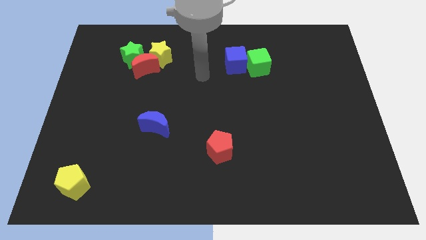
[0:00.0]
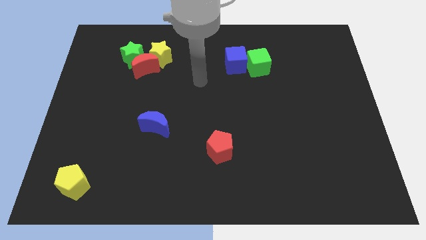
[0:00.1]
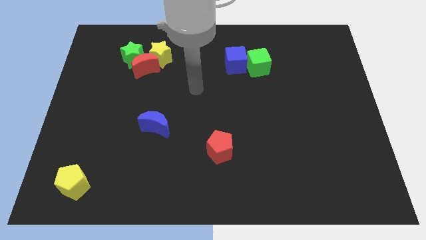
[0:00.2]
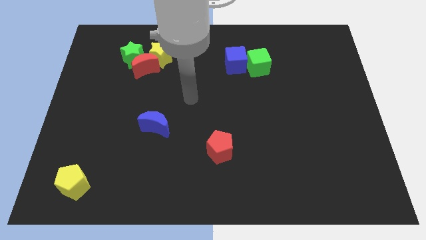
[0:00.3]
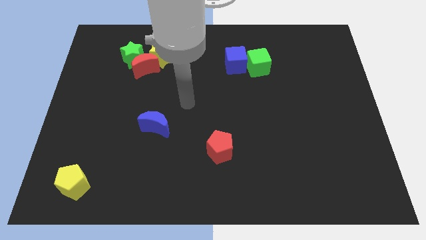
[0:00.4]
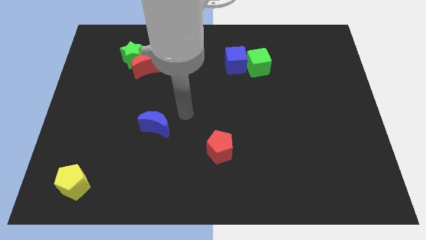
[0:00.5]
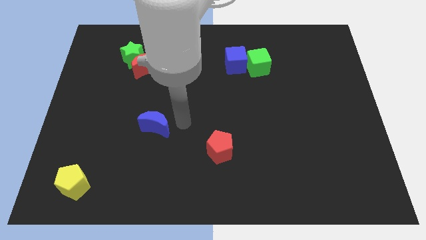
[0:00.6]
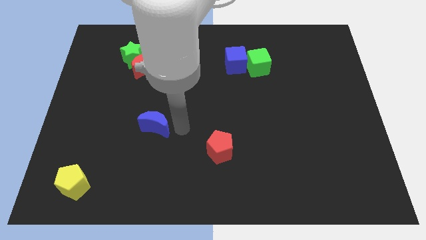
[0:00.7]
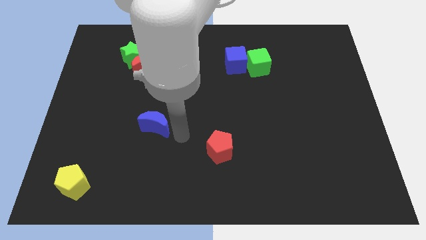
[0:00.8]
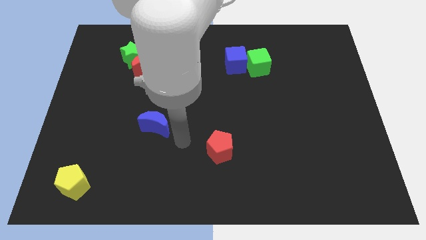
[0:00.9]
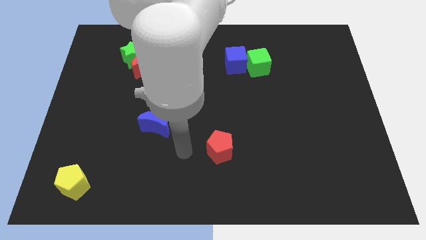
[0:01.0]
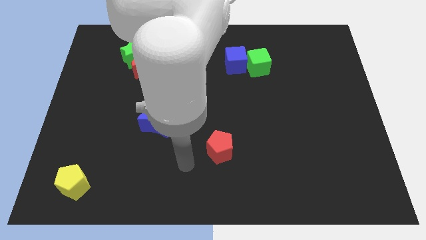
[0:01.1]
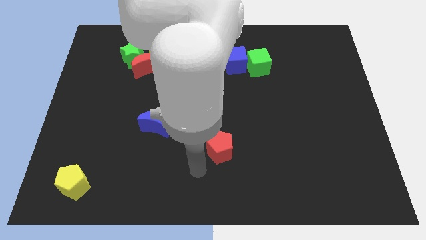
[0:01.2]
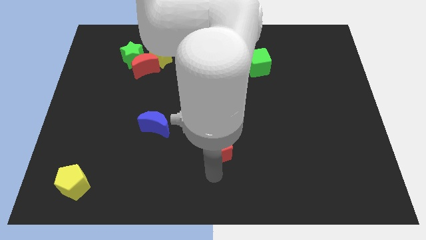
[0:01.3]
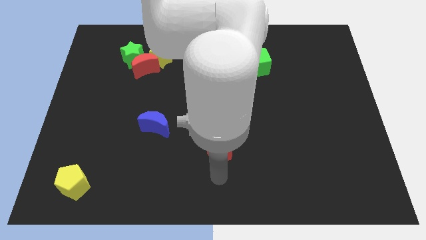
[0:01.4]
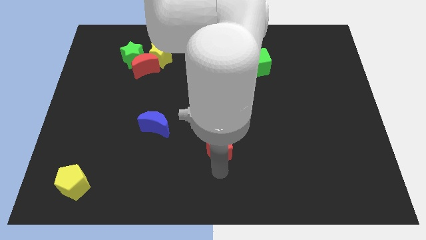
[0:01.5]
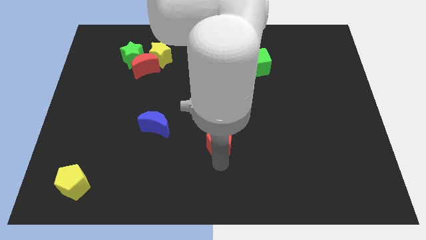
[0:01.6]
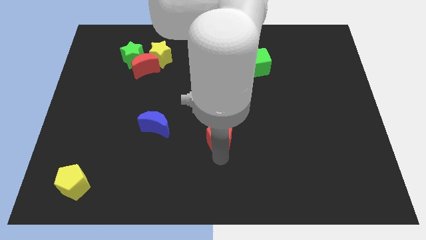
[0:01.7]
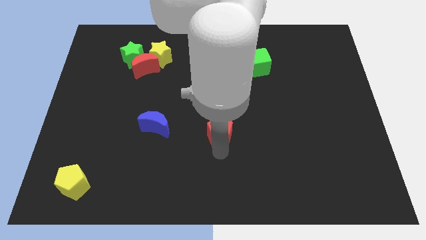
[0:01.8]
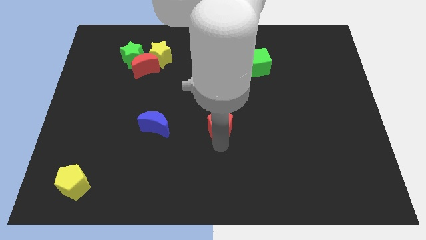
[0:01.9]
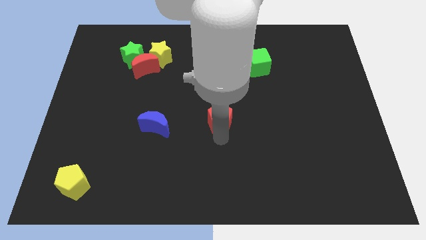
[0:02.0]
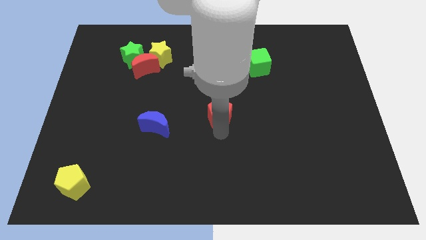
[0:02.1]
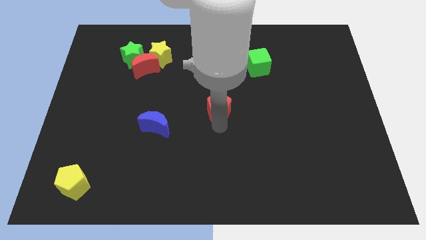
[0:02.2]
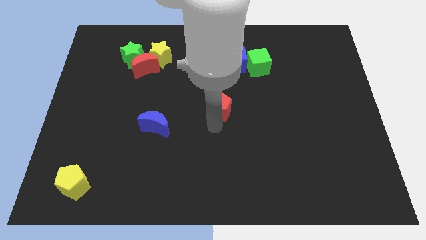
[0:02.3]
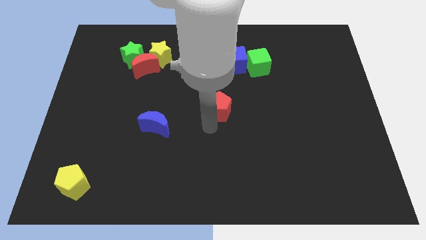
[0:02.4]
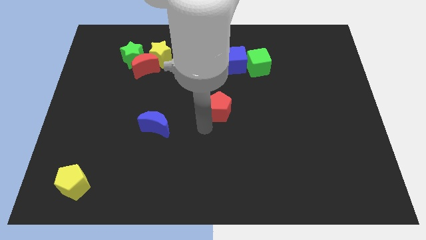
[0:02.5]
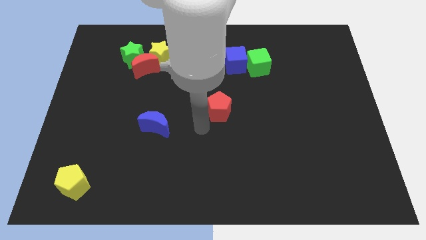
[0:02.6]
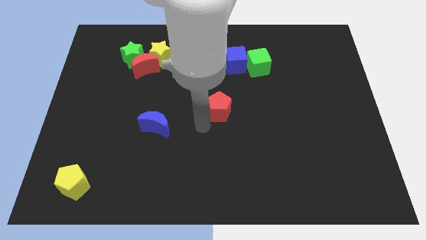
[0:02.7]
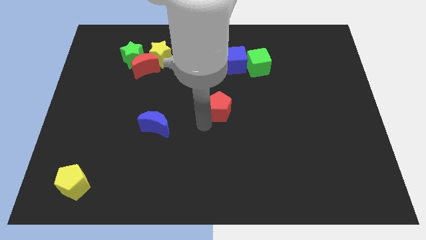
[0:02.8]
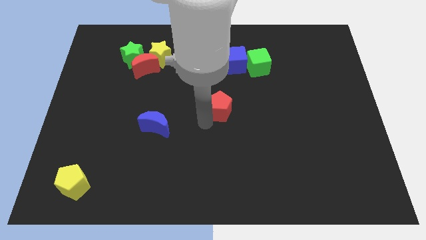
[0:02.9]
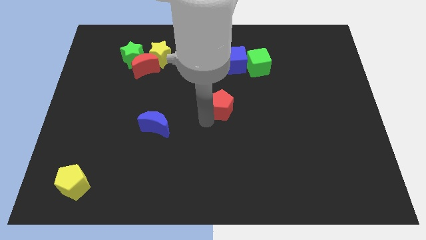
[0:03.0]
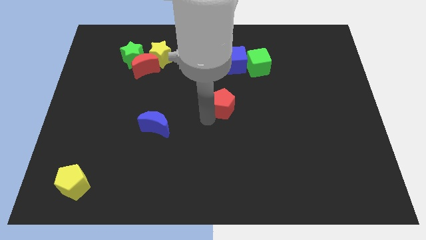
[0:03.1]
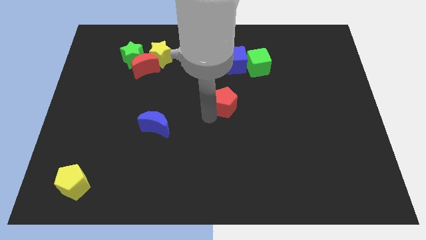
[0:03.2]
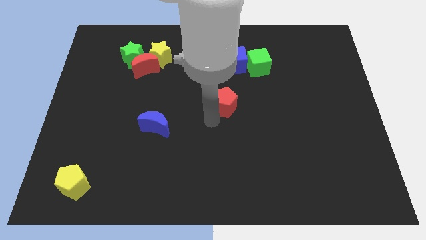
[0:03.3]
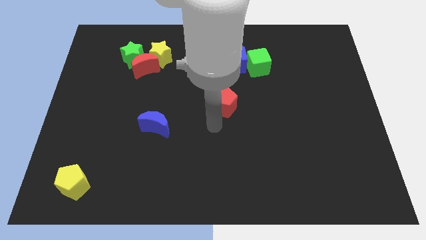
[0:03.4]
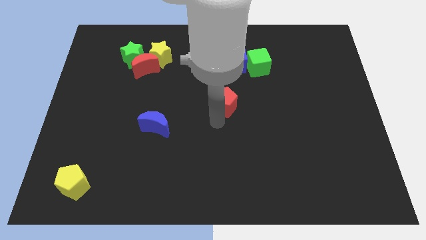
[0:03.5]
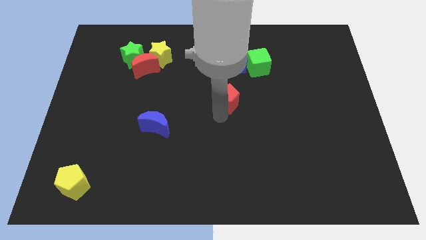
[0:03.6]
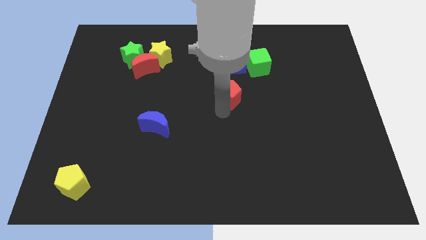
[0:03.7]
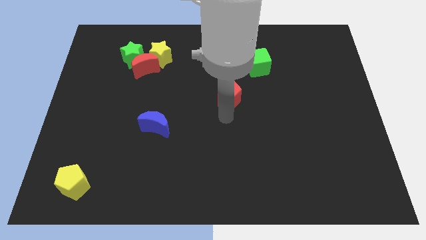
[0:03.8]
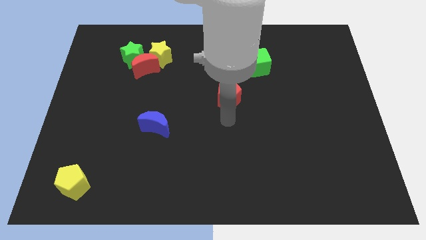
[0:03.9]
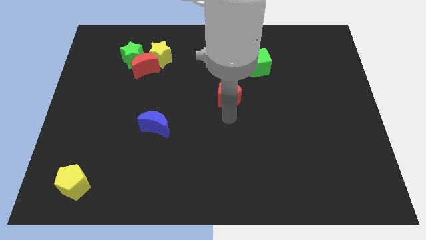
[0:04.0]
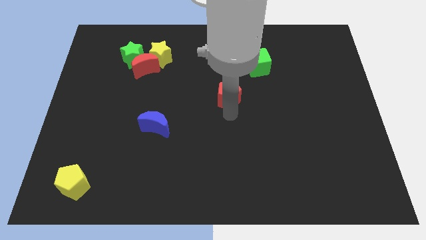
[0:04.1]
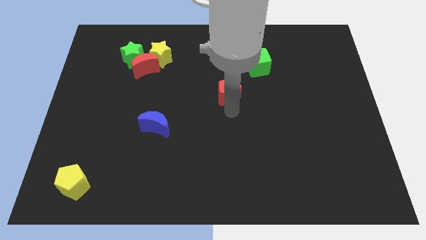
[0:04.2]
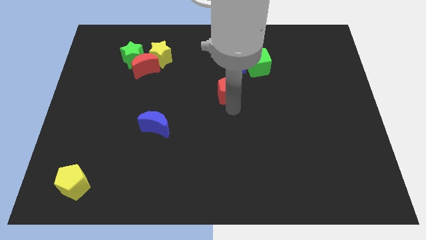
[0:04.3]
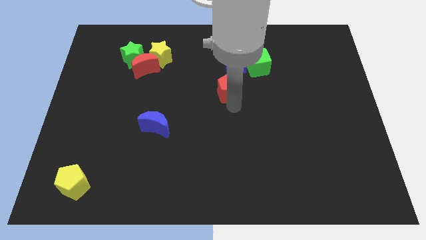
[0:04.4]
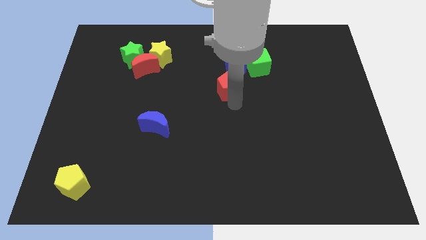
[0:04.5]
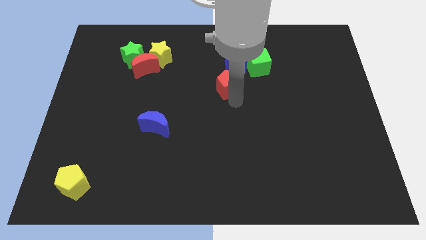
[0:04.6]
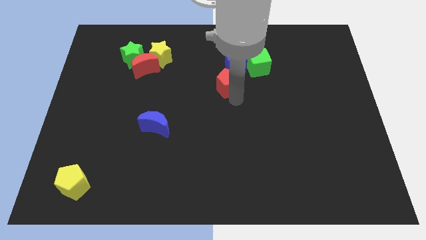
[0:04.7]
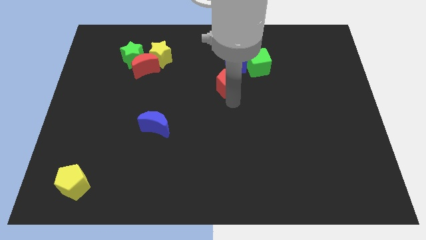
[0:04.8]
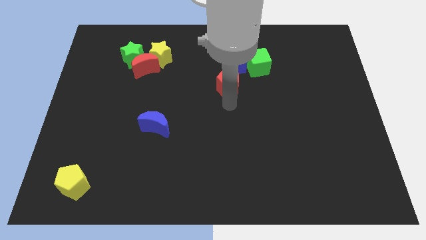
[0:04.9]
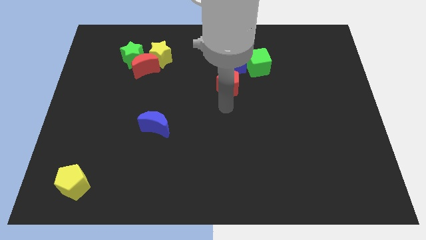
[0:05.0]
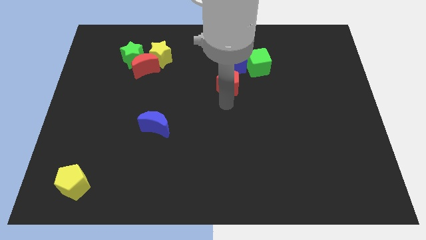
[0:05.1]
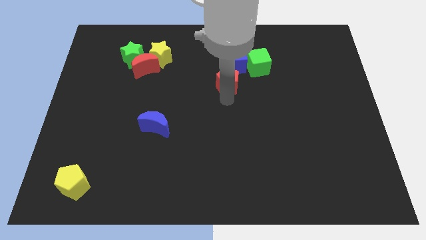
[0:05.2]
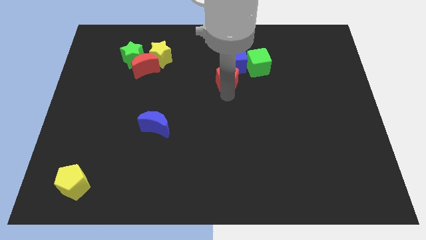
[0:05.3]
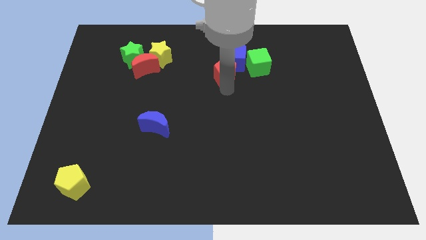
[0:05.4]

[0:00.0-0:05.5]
push the red pentagon close to the blue cube

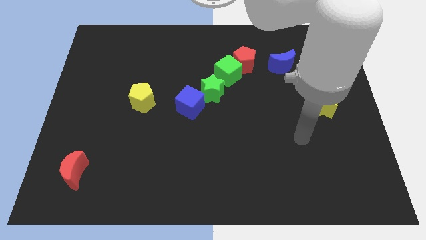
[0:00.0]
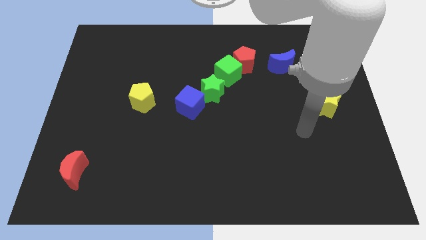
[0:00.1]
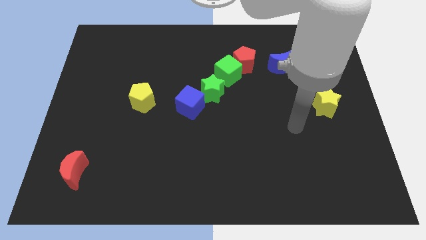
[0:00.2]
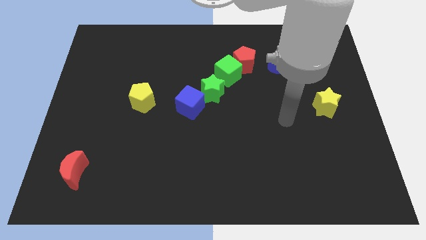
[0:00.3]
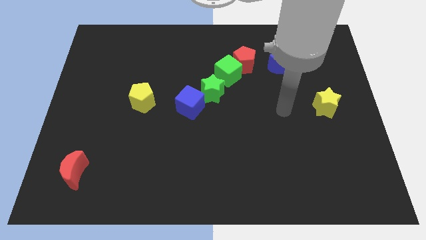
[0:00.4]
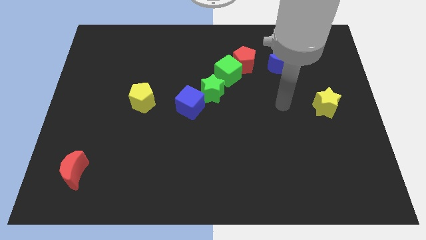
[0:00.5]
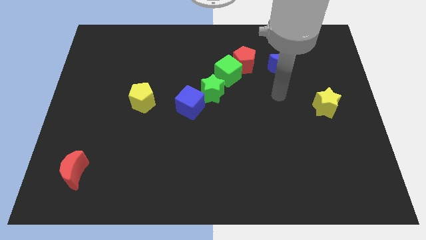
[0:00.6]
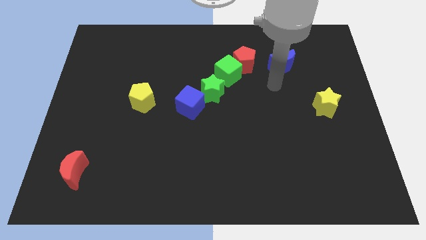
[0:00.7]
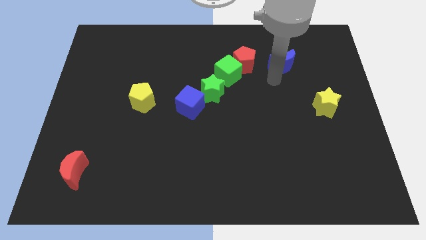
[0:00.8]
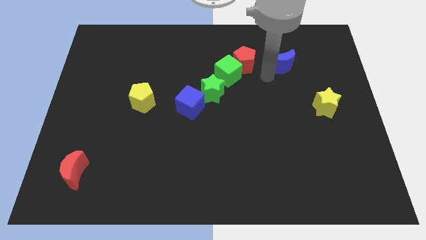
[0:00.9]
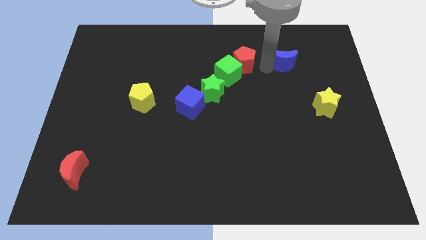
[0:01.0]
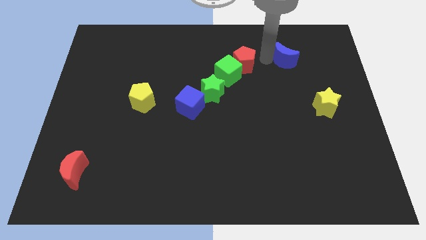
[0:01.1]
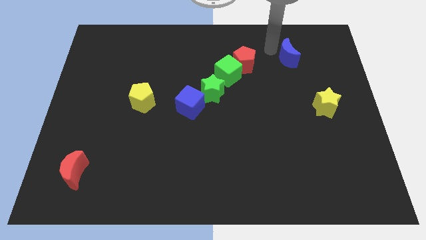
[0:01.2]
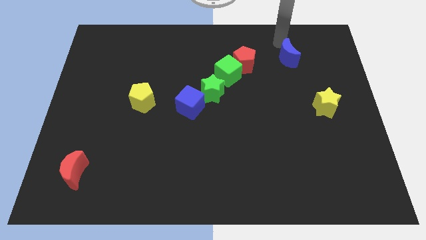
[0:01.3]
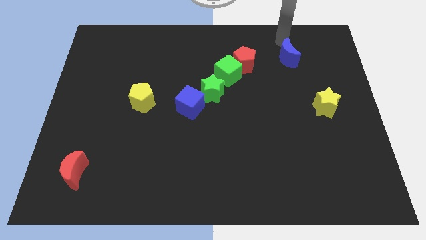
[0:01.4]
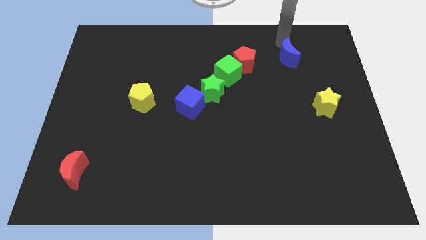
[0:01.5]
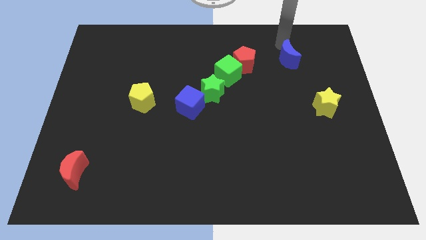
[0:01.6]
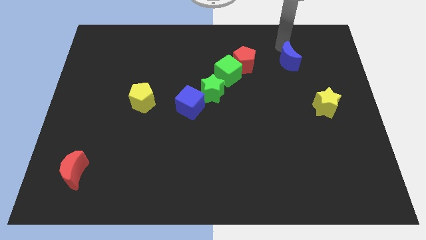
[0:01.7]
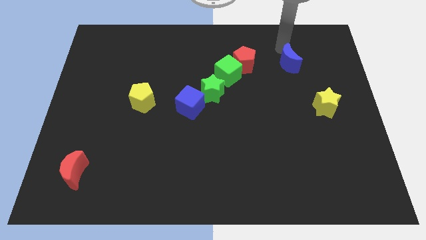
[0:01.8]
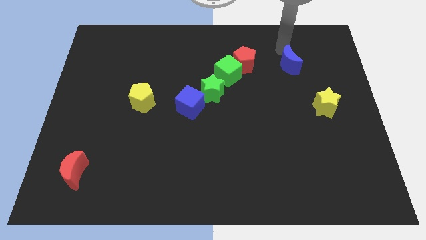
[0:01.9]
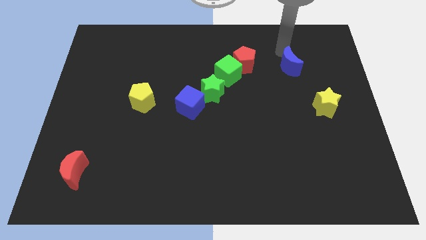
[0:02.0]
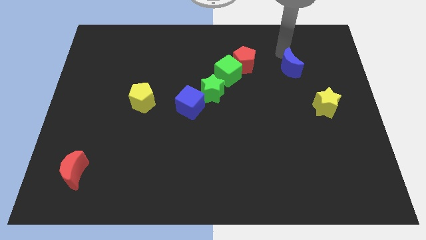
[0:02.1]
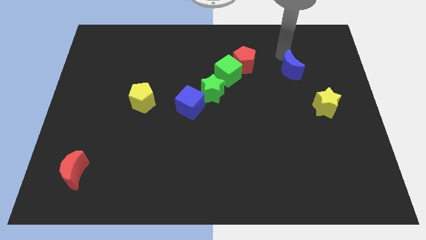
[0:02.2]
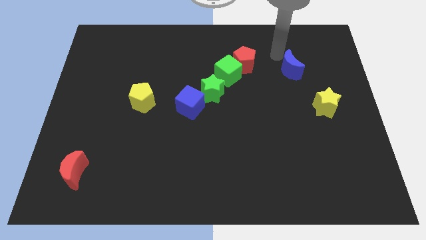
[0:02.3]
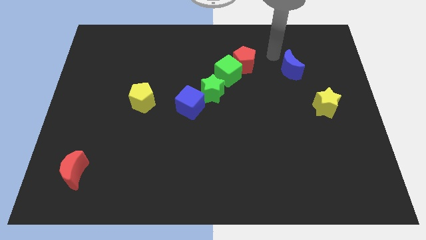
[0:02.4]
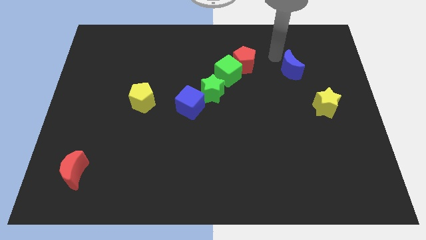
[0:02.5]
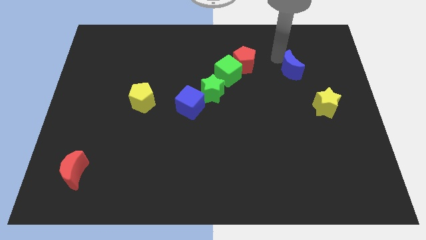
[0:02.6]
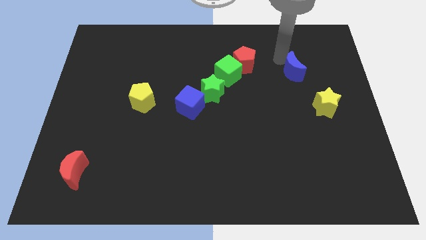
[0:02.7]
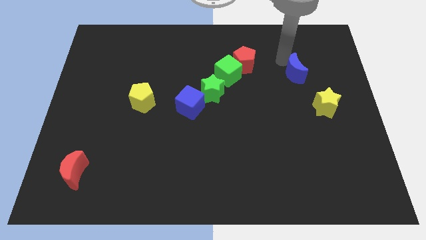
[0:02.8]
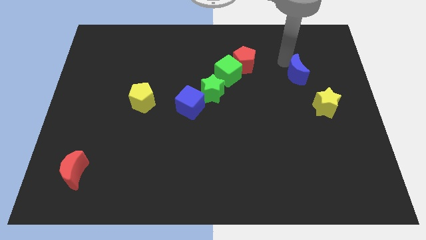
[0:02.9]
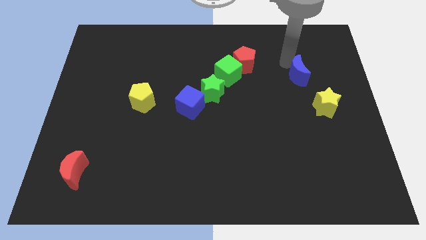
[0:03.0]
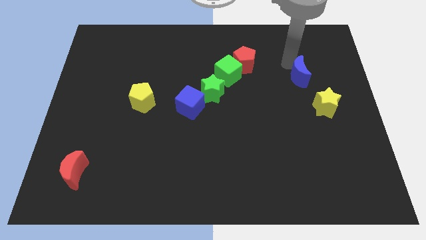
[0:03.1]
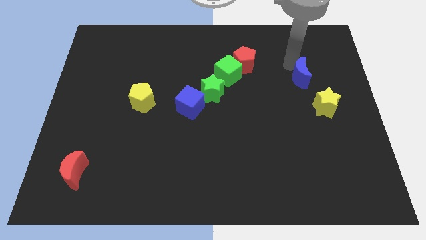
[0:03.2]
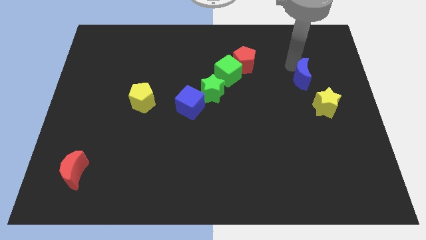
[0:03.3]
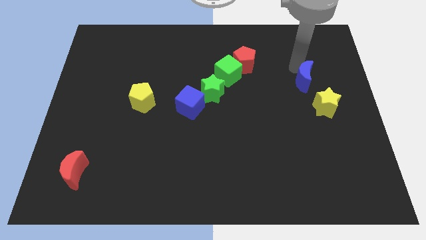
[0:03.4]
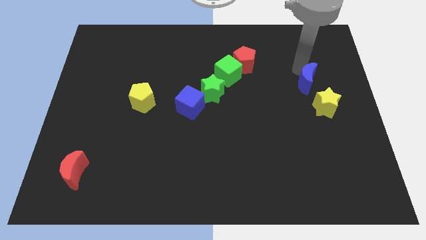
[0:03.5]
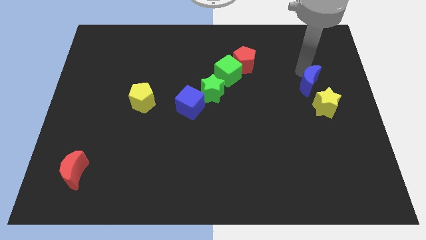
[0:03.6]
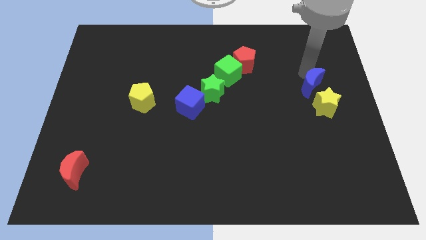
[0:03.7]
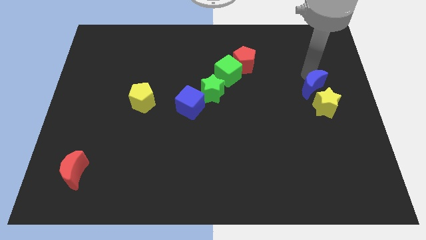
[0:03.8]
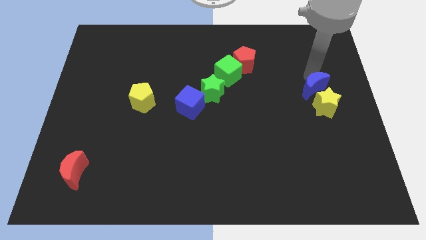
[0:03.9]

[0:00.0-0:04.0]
slide the blue moon towards the yellow star
